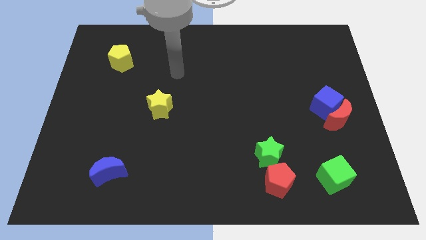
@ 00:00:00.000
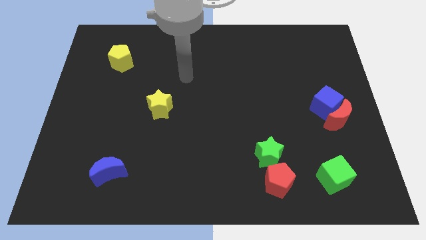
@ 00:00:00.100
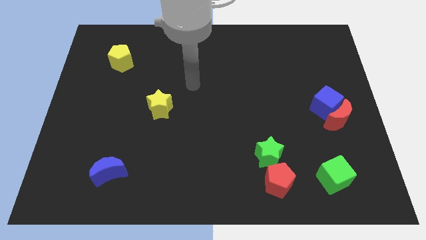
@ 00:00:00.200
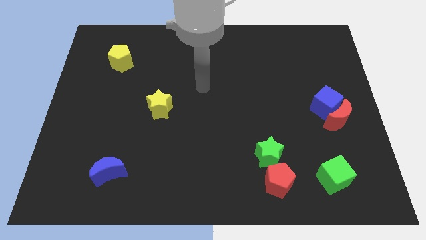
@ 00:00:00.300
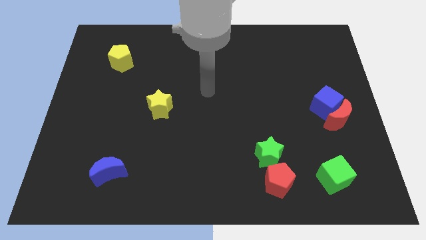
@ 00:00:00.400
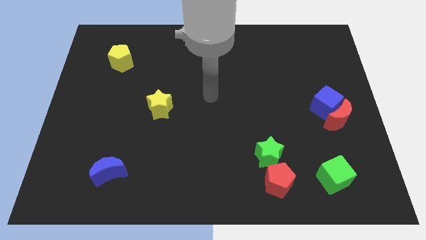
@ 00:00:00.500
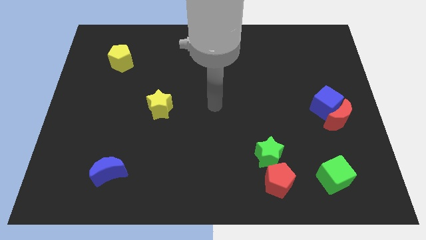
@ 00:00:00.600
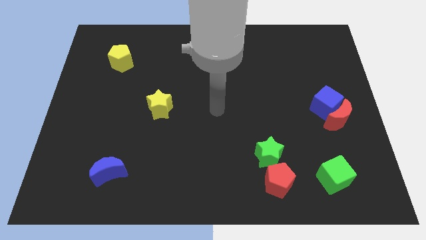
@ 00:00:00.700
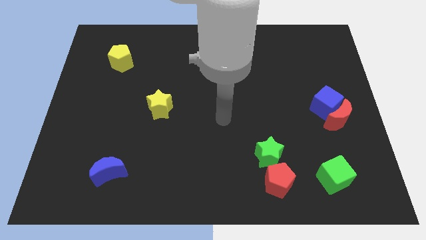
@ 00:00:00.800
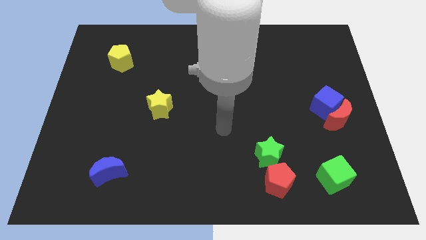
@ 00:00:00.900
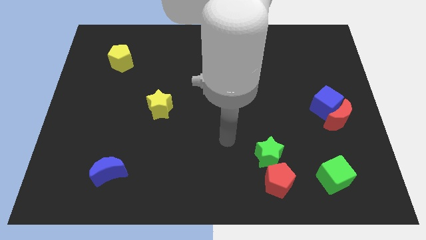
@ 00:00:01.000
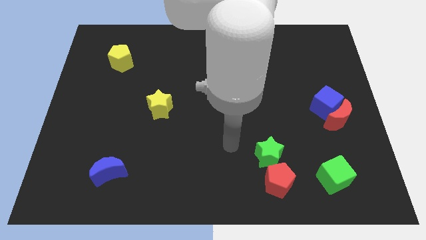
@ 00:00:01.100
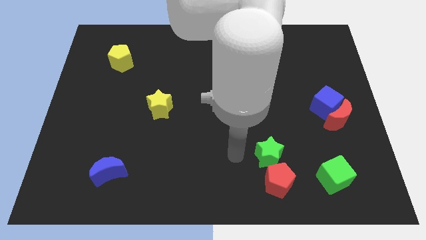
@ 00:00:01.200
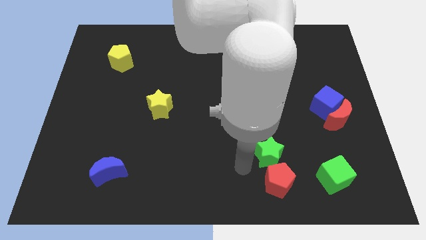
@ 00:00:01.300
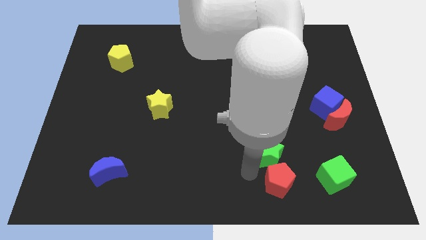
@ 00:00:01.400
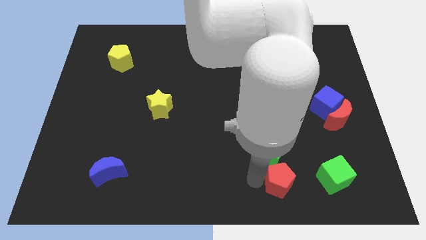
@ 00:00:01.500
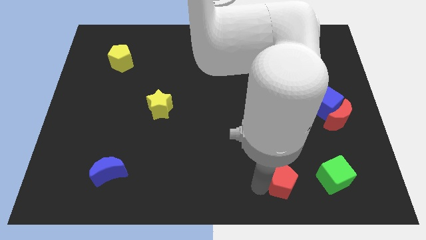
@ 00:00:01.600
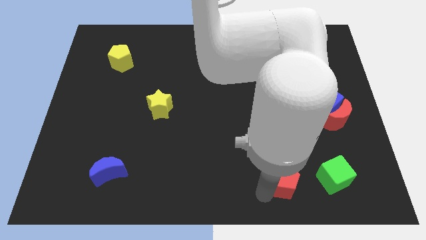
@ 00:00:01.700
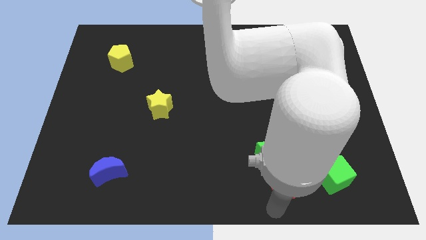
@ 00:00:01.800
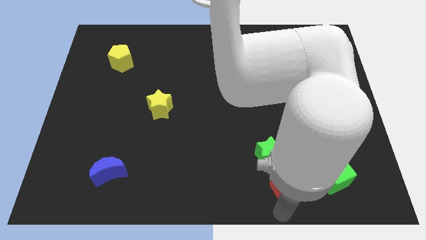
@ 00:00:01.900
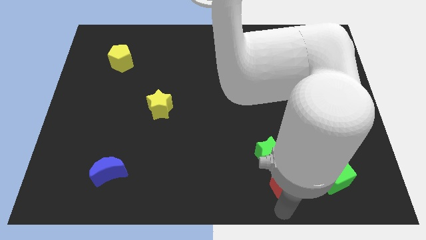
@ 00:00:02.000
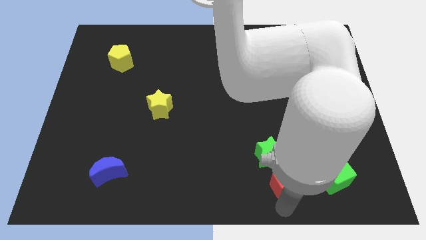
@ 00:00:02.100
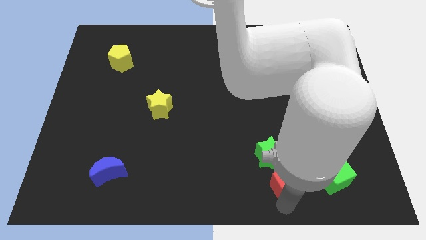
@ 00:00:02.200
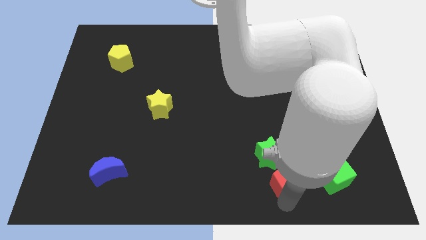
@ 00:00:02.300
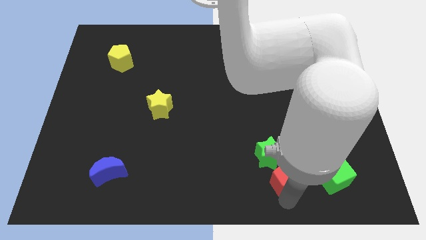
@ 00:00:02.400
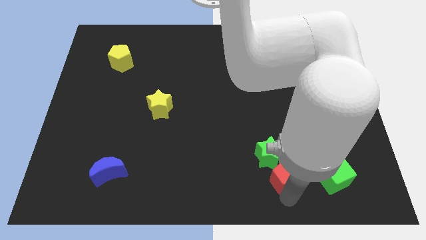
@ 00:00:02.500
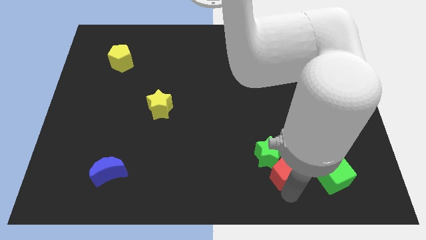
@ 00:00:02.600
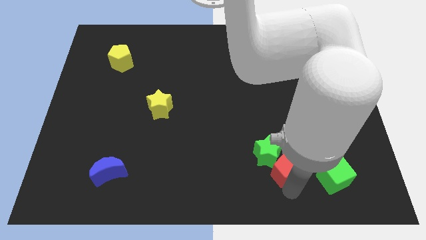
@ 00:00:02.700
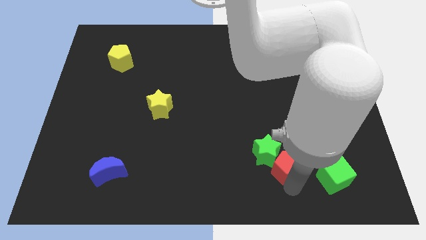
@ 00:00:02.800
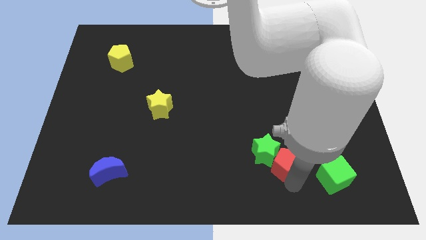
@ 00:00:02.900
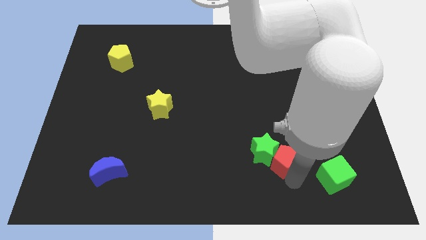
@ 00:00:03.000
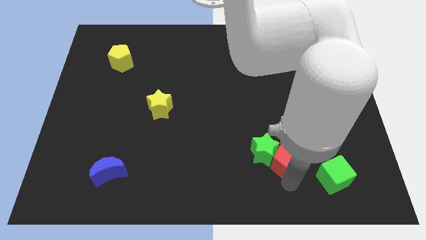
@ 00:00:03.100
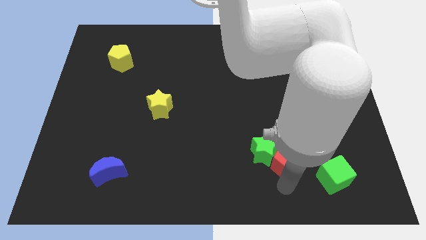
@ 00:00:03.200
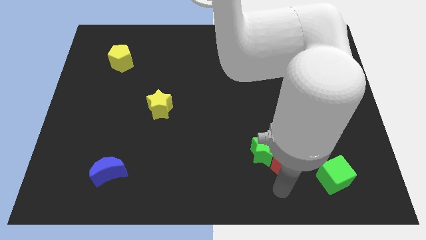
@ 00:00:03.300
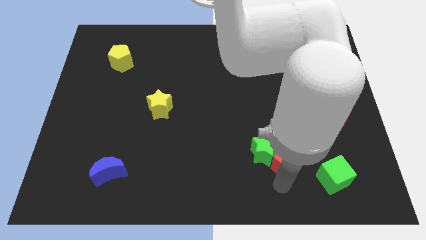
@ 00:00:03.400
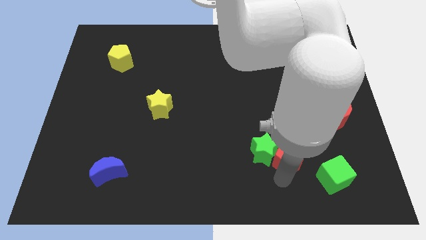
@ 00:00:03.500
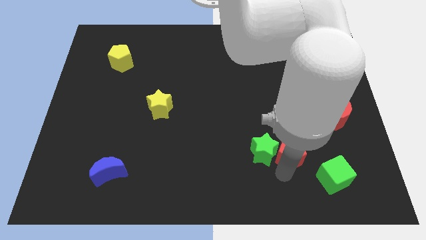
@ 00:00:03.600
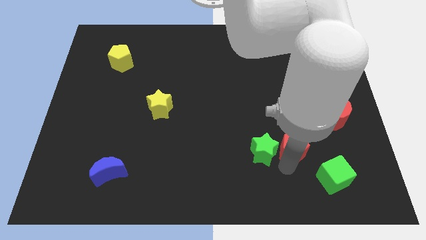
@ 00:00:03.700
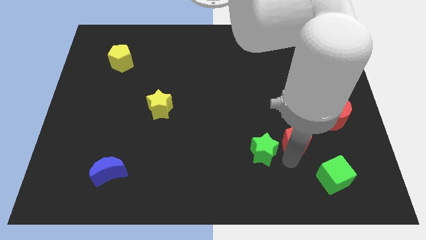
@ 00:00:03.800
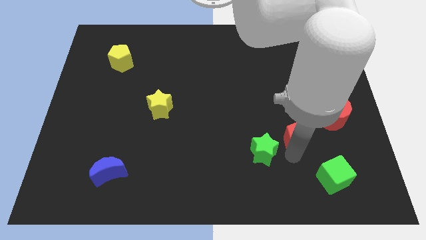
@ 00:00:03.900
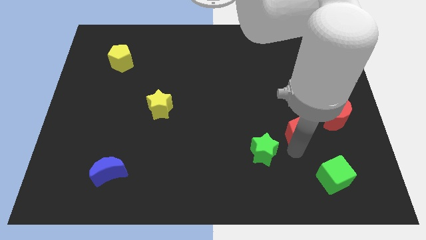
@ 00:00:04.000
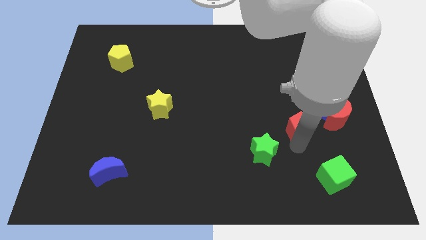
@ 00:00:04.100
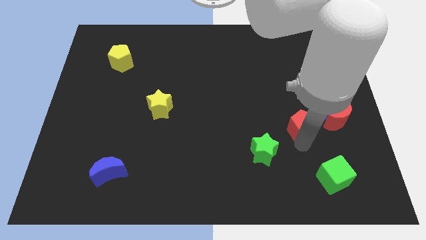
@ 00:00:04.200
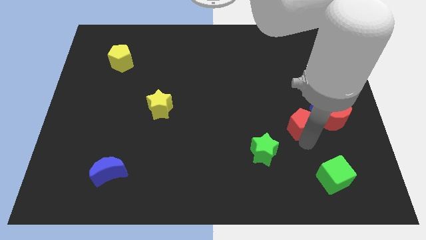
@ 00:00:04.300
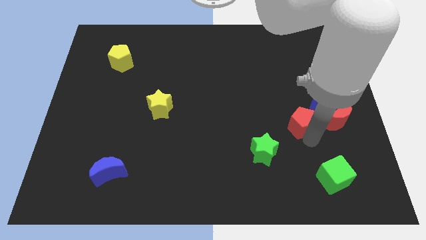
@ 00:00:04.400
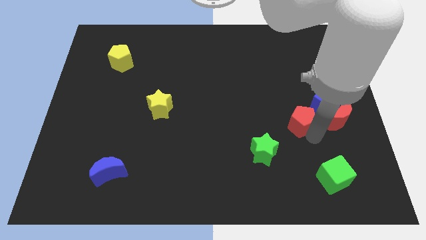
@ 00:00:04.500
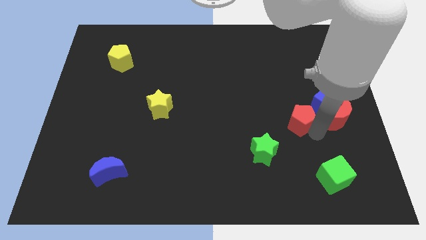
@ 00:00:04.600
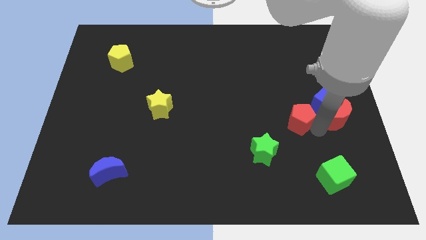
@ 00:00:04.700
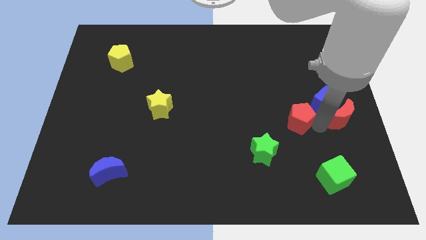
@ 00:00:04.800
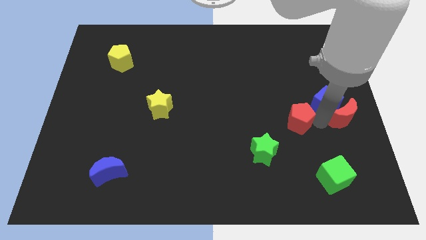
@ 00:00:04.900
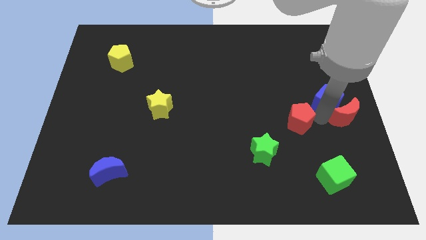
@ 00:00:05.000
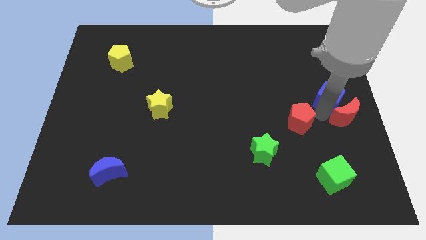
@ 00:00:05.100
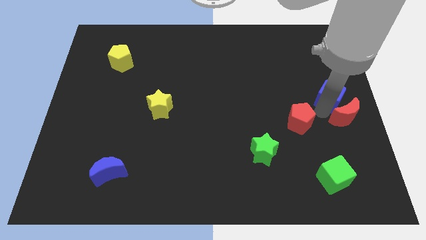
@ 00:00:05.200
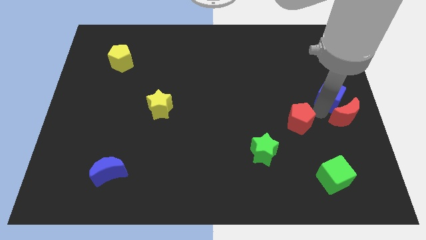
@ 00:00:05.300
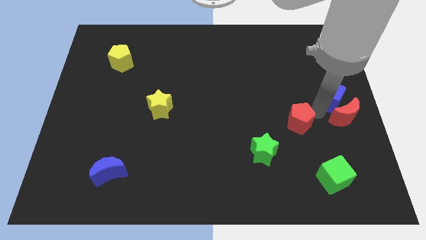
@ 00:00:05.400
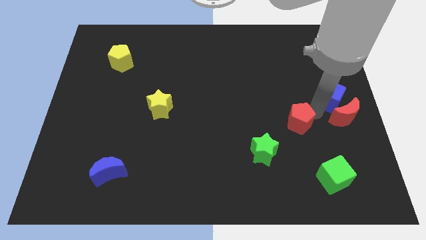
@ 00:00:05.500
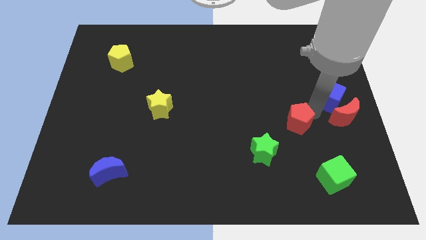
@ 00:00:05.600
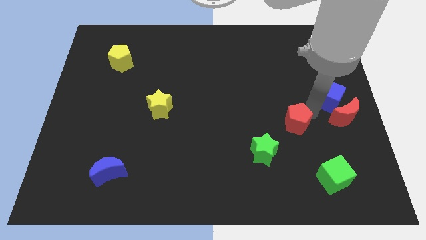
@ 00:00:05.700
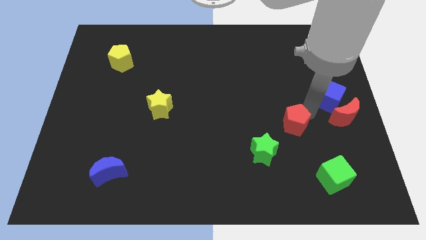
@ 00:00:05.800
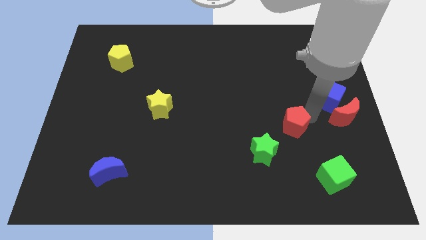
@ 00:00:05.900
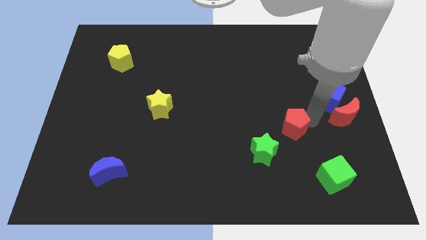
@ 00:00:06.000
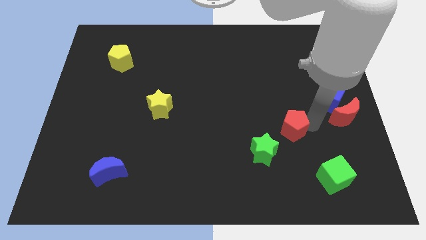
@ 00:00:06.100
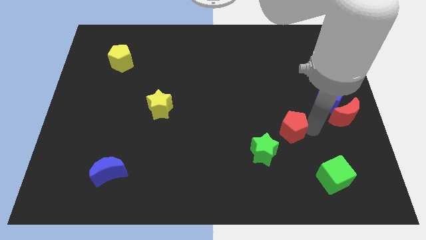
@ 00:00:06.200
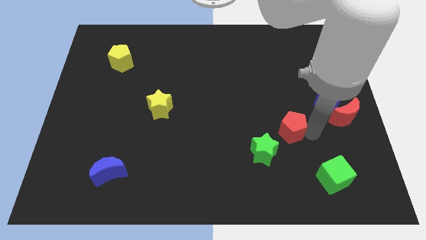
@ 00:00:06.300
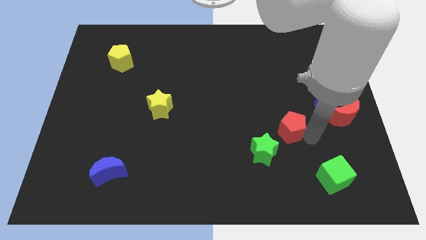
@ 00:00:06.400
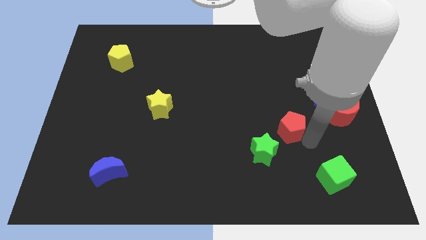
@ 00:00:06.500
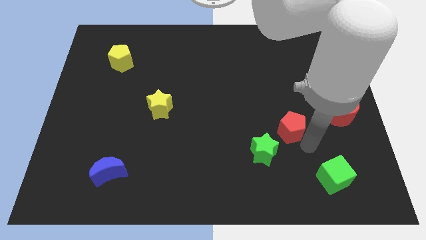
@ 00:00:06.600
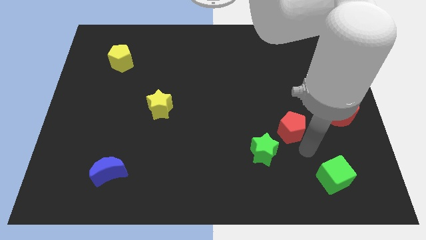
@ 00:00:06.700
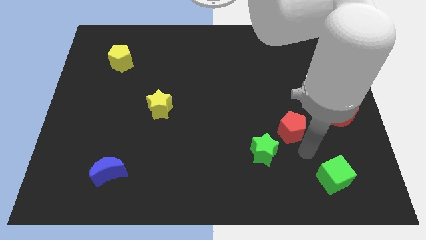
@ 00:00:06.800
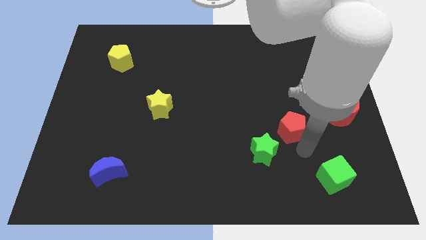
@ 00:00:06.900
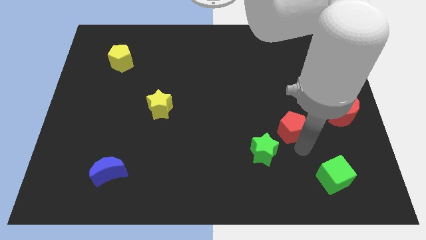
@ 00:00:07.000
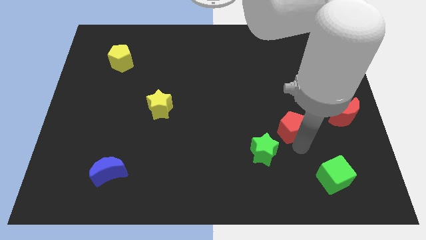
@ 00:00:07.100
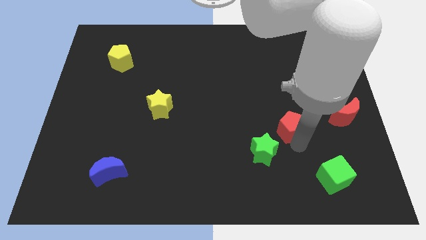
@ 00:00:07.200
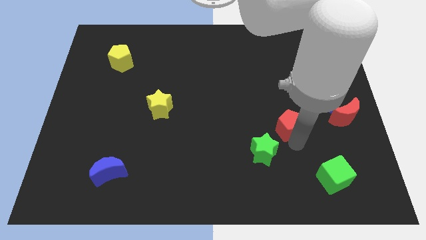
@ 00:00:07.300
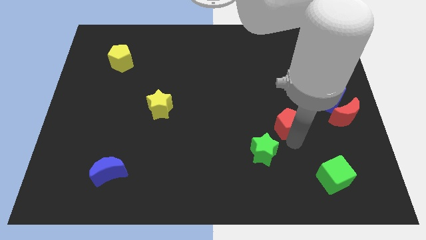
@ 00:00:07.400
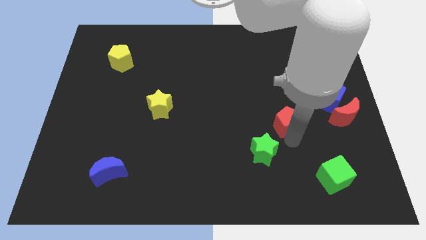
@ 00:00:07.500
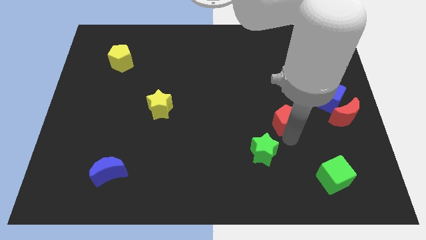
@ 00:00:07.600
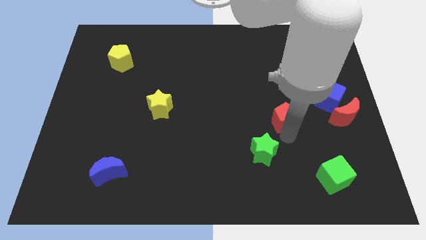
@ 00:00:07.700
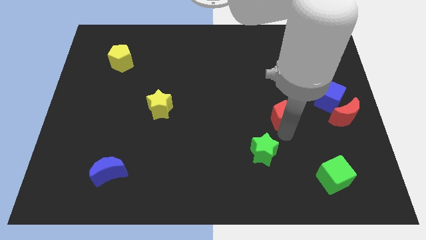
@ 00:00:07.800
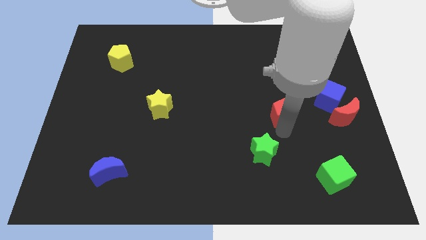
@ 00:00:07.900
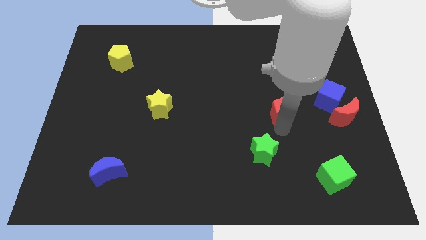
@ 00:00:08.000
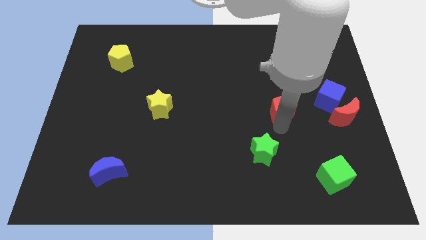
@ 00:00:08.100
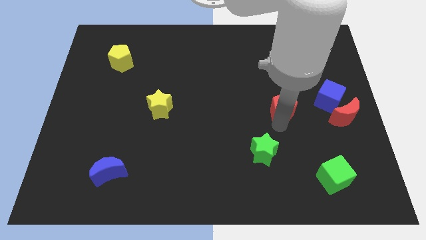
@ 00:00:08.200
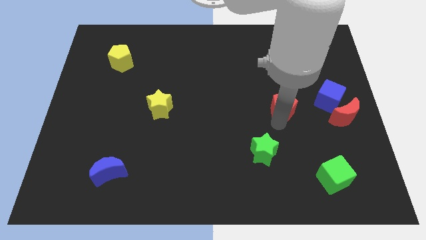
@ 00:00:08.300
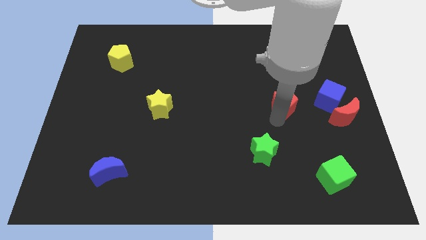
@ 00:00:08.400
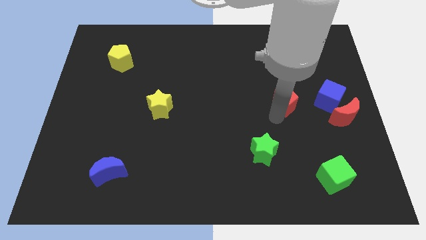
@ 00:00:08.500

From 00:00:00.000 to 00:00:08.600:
push the red pentagon upwards
